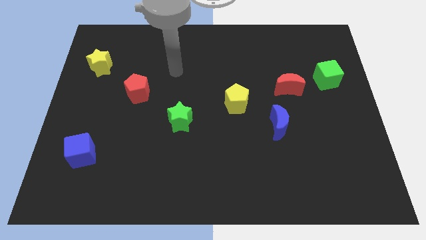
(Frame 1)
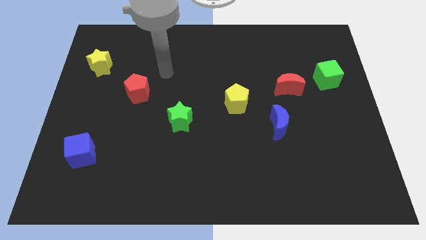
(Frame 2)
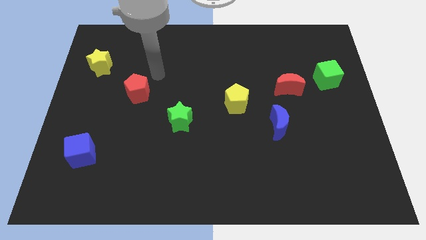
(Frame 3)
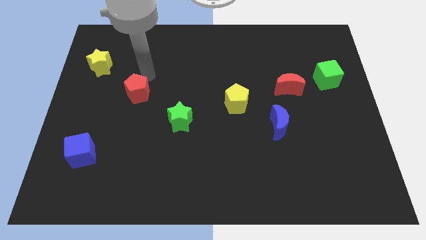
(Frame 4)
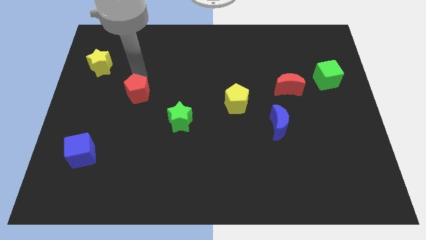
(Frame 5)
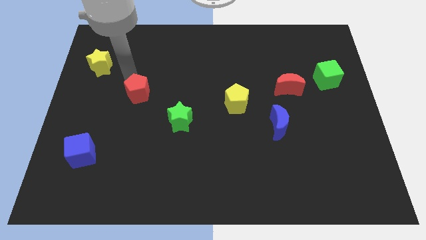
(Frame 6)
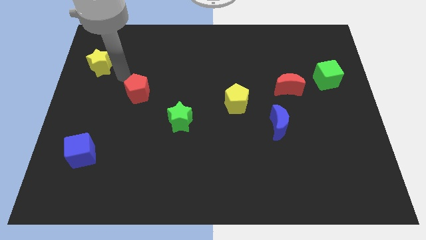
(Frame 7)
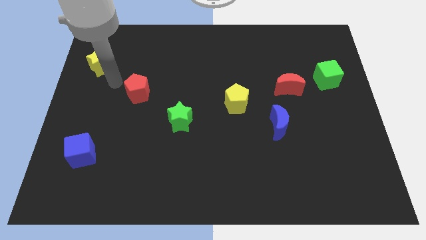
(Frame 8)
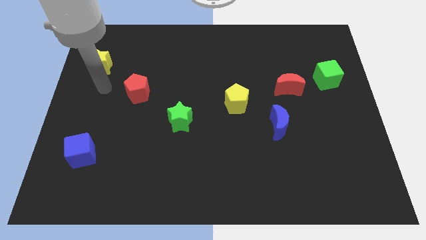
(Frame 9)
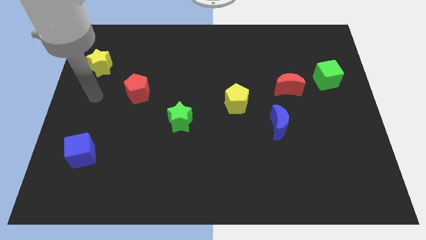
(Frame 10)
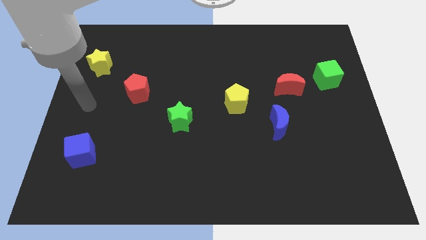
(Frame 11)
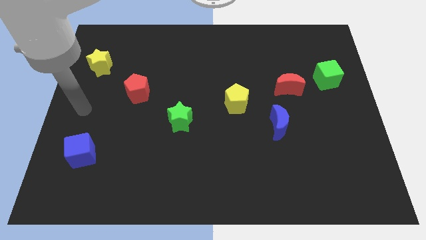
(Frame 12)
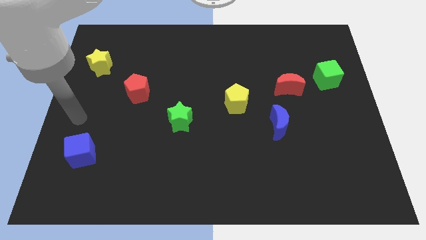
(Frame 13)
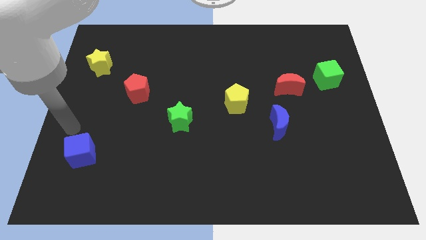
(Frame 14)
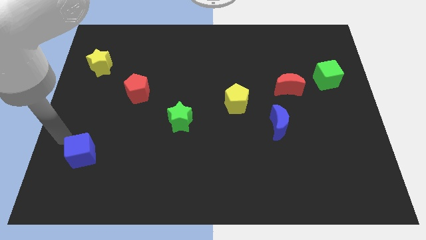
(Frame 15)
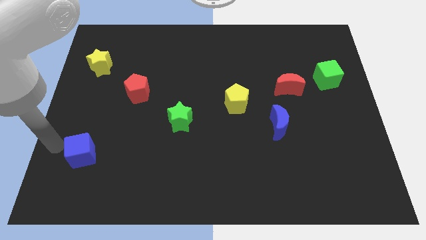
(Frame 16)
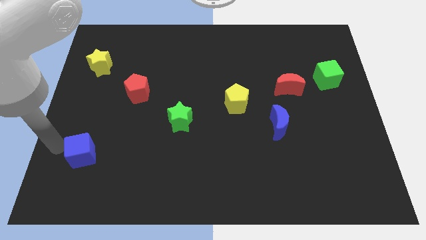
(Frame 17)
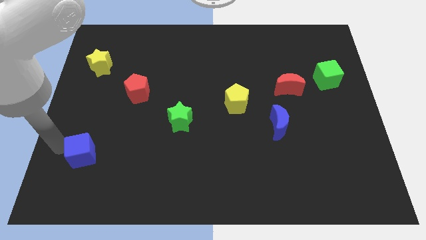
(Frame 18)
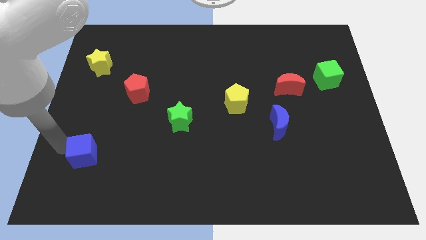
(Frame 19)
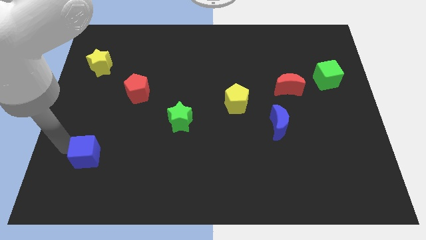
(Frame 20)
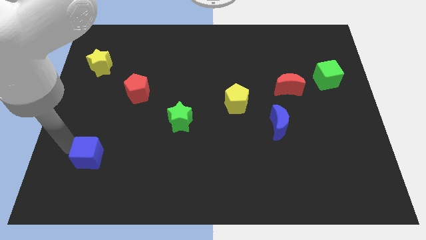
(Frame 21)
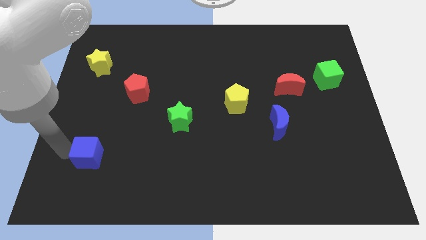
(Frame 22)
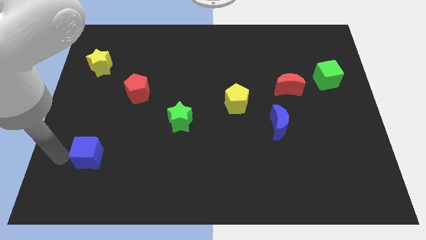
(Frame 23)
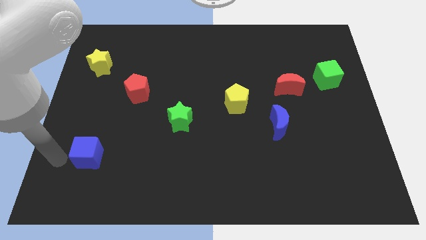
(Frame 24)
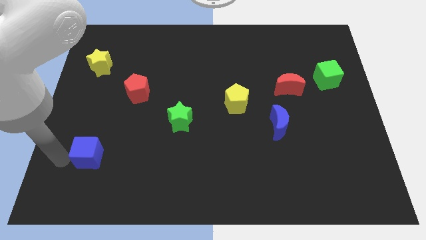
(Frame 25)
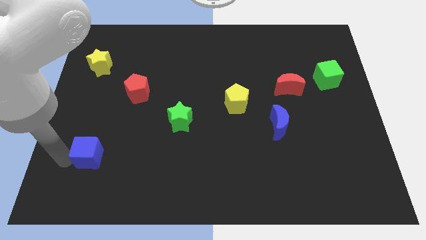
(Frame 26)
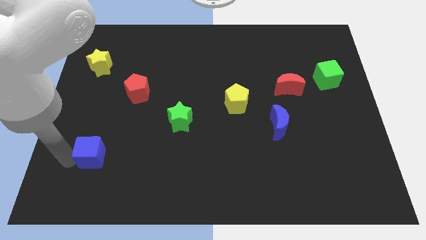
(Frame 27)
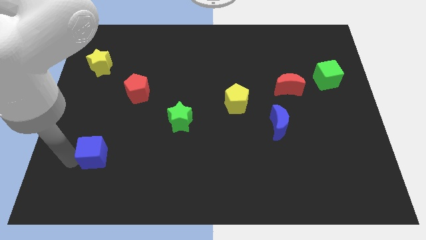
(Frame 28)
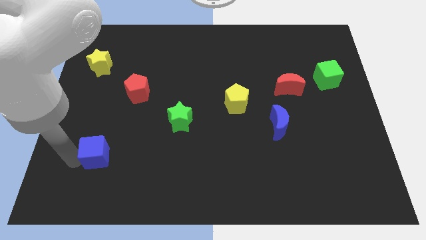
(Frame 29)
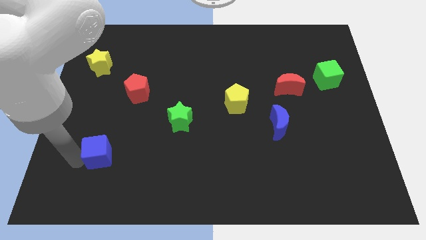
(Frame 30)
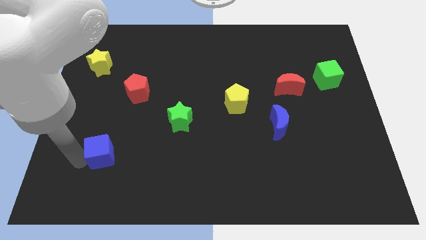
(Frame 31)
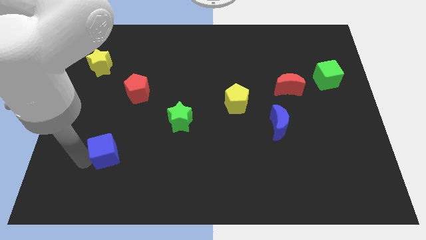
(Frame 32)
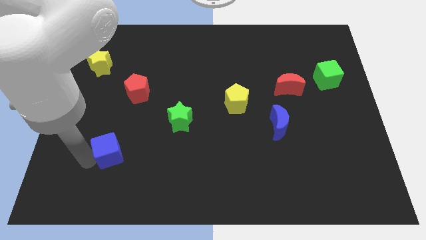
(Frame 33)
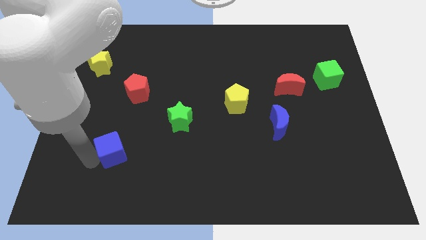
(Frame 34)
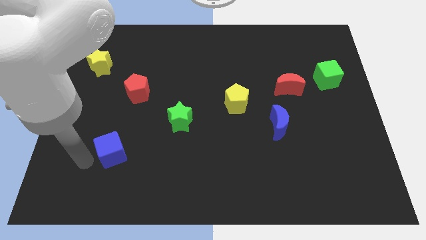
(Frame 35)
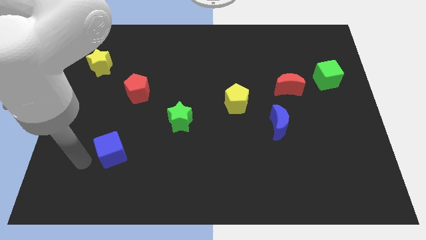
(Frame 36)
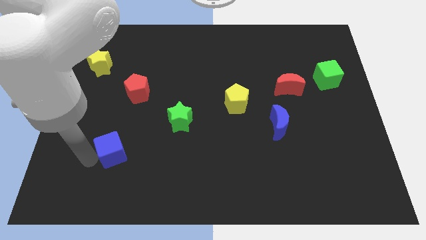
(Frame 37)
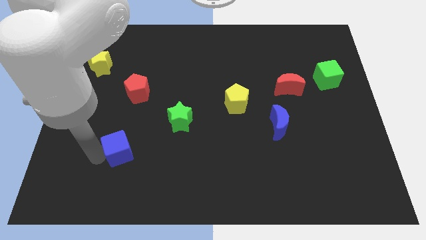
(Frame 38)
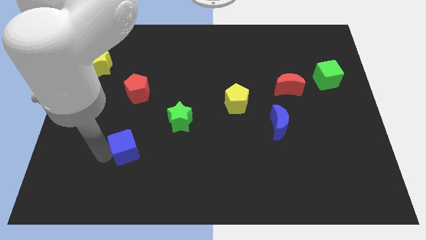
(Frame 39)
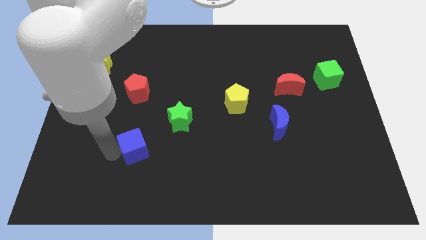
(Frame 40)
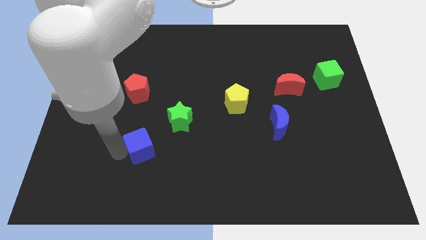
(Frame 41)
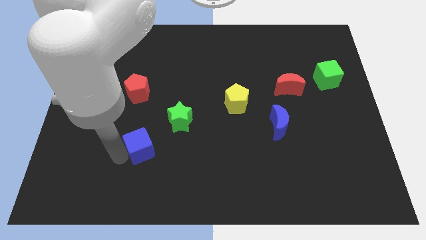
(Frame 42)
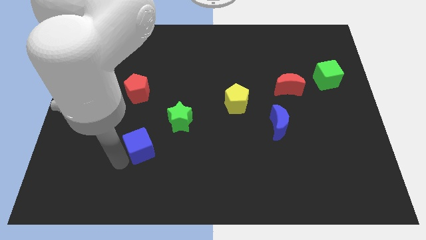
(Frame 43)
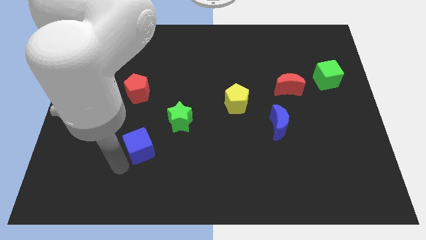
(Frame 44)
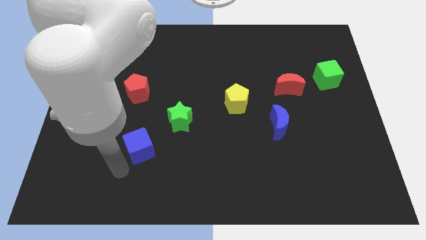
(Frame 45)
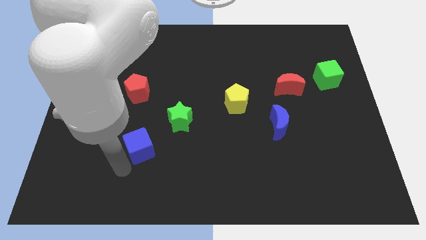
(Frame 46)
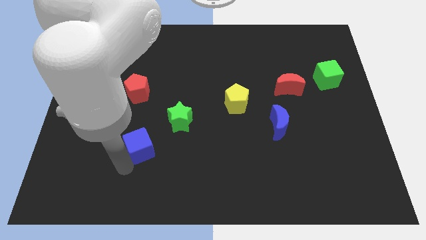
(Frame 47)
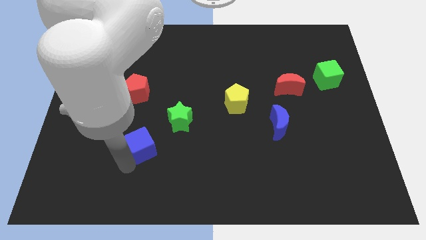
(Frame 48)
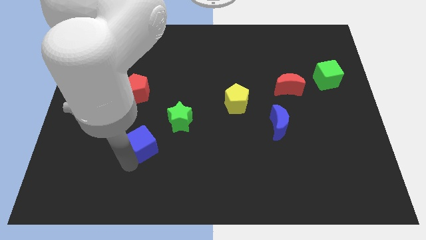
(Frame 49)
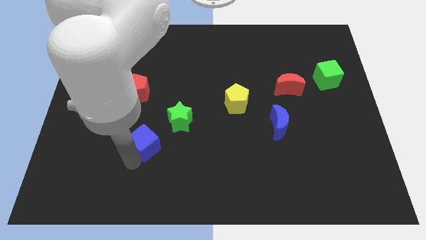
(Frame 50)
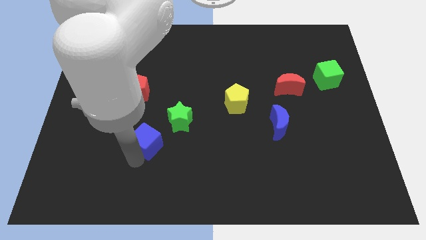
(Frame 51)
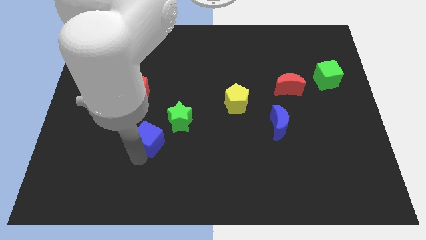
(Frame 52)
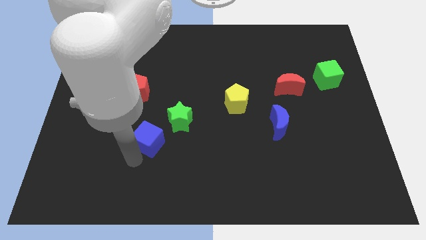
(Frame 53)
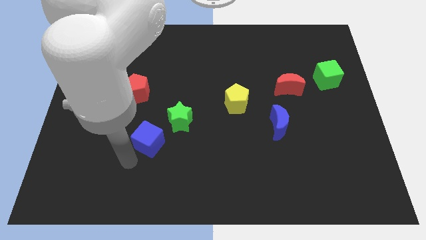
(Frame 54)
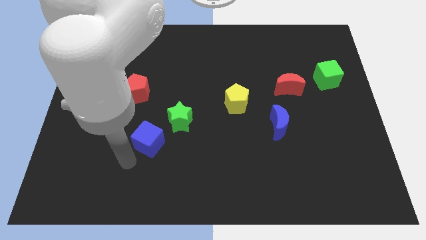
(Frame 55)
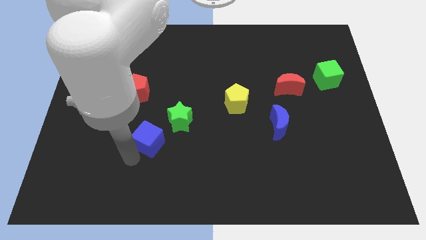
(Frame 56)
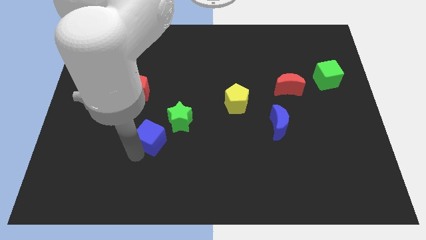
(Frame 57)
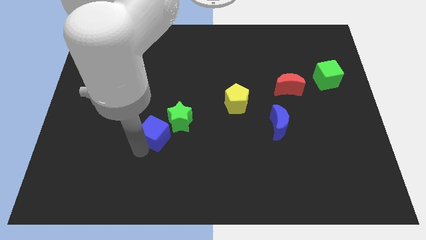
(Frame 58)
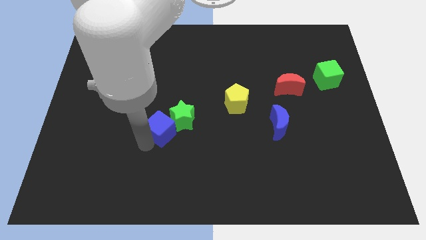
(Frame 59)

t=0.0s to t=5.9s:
put the blue cube next to the green star
